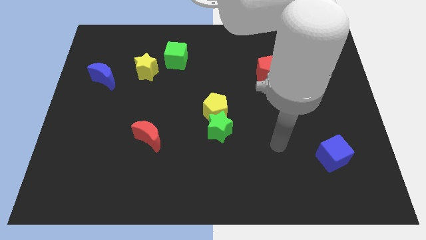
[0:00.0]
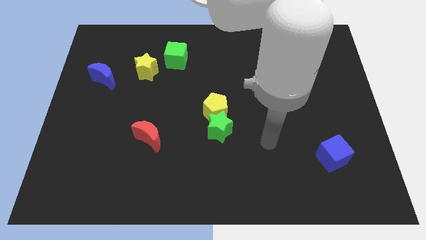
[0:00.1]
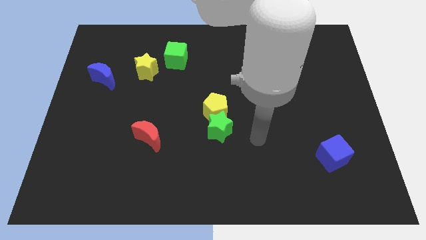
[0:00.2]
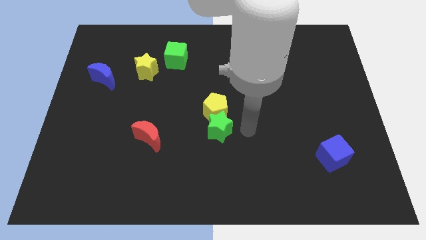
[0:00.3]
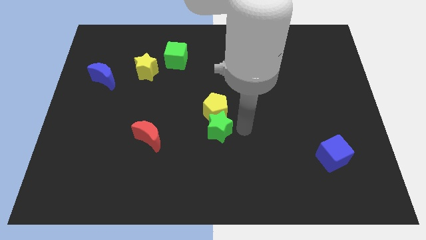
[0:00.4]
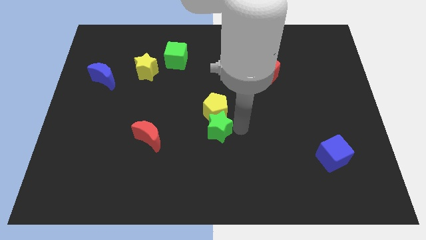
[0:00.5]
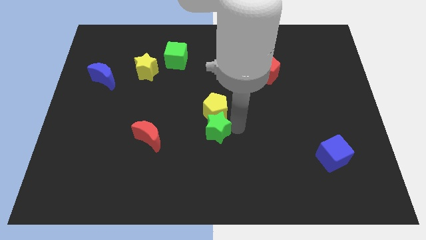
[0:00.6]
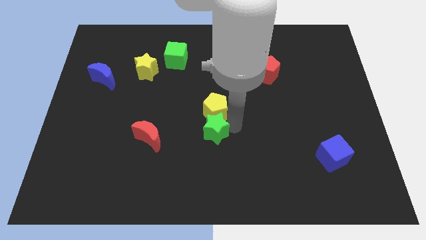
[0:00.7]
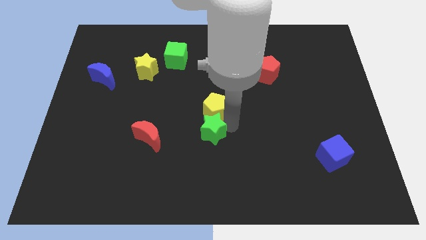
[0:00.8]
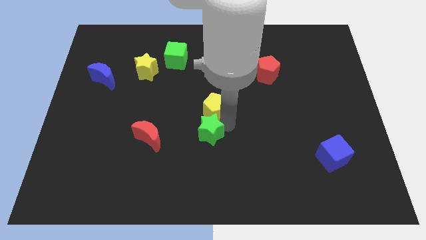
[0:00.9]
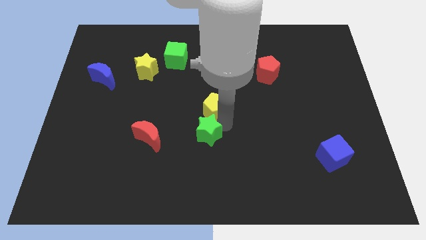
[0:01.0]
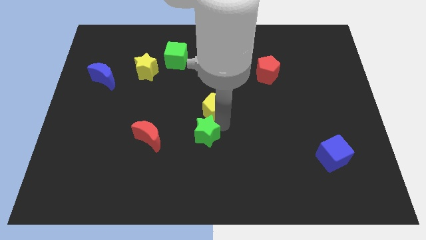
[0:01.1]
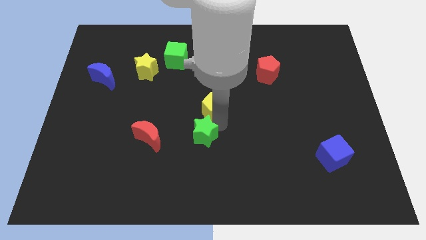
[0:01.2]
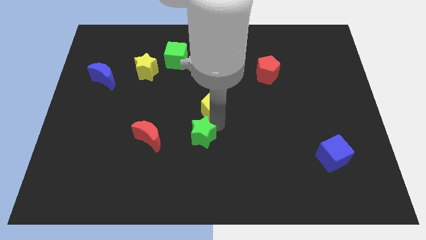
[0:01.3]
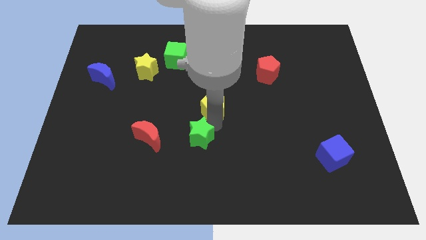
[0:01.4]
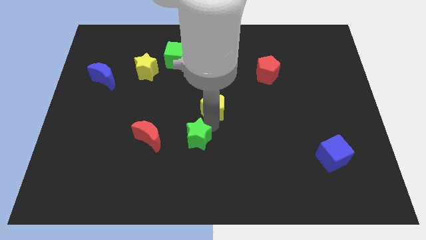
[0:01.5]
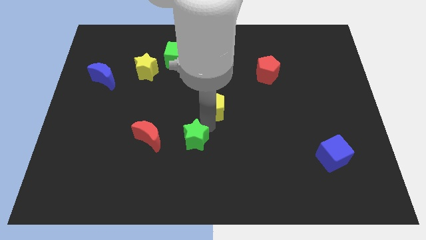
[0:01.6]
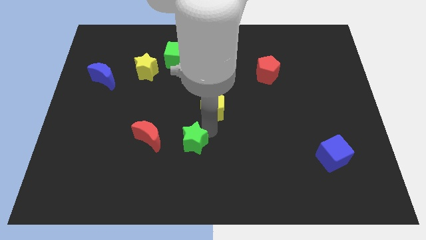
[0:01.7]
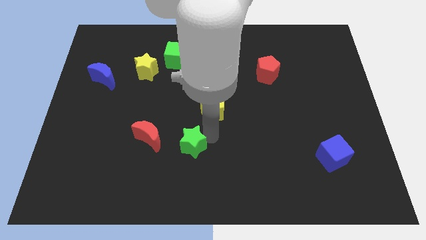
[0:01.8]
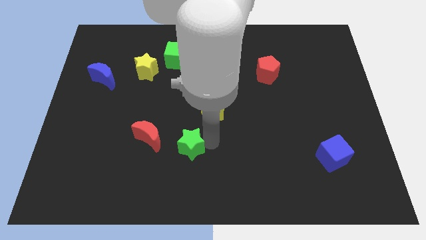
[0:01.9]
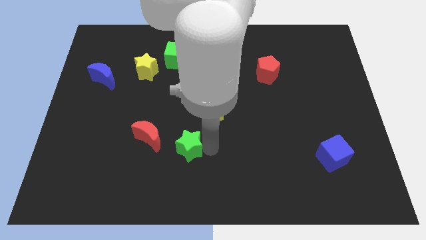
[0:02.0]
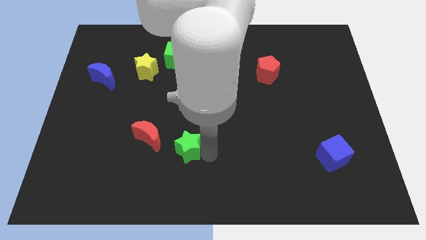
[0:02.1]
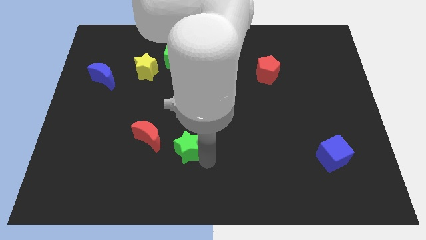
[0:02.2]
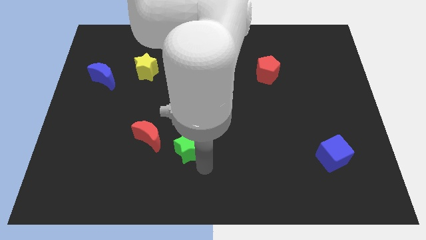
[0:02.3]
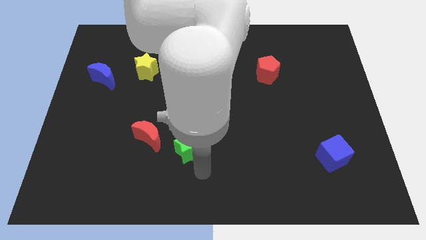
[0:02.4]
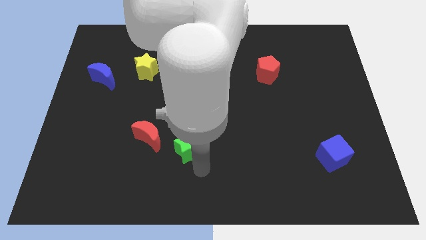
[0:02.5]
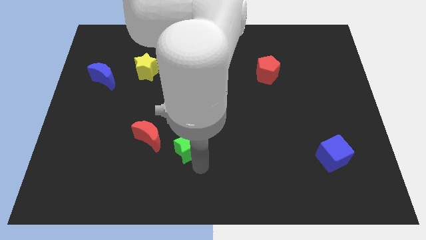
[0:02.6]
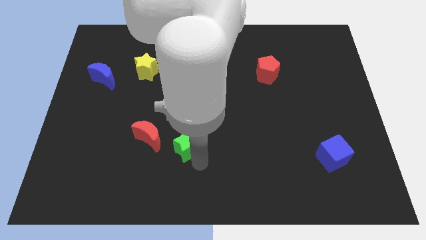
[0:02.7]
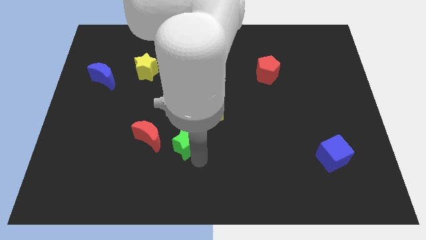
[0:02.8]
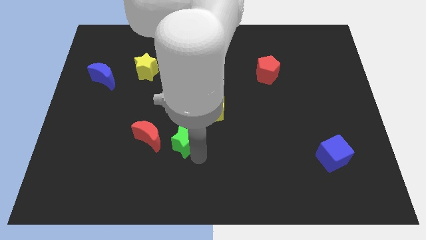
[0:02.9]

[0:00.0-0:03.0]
slightly push the green star to the left

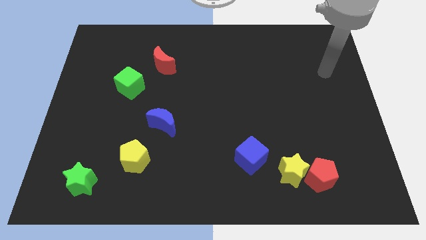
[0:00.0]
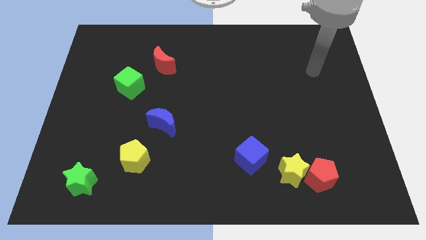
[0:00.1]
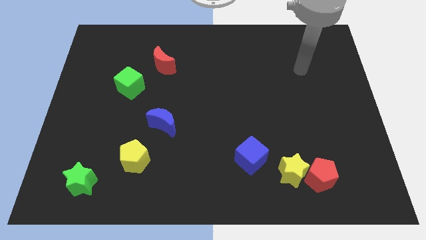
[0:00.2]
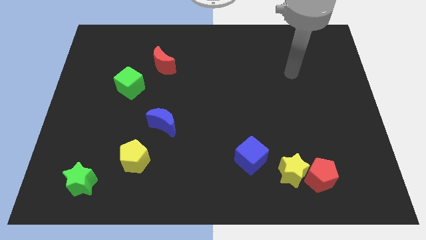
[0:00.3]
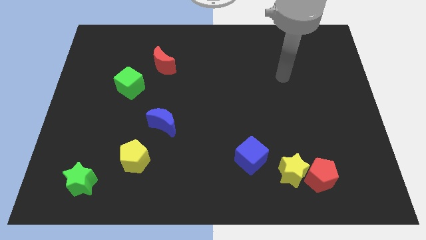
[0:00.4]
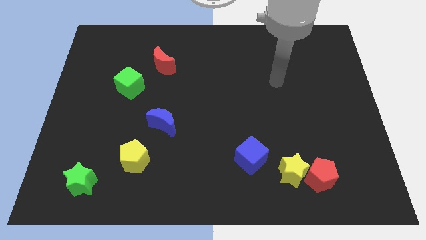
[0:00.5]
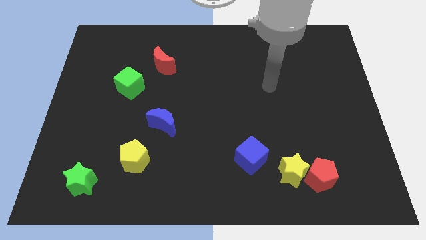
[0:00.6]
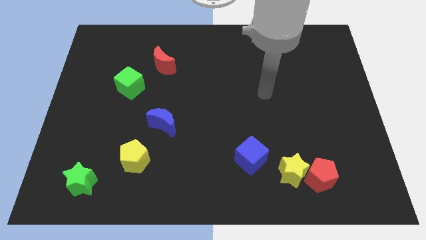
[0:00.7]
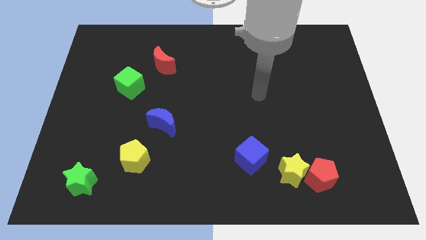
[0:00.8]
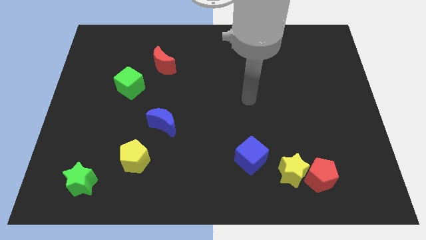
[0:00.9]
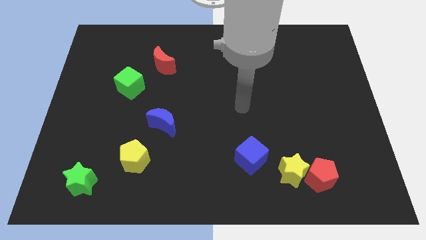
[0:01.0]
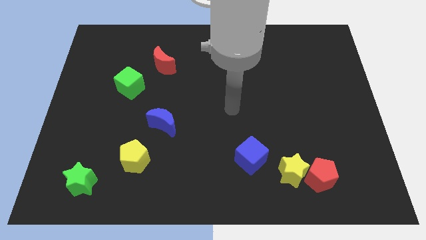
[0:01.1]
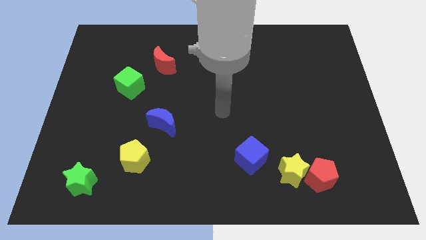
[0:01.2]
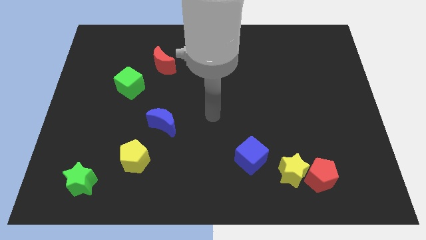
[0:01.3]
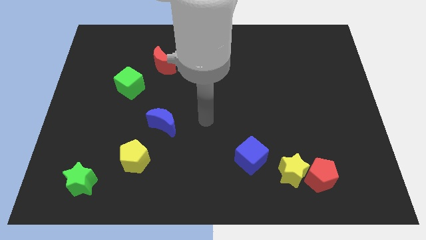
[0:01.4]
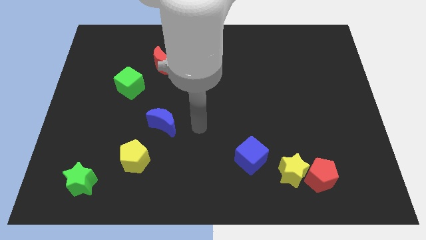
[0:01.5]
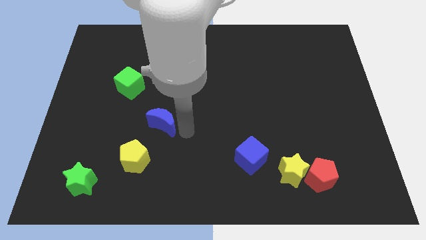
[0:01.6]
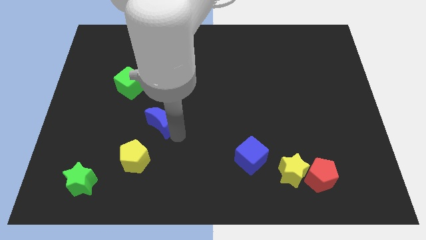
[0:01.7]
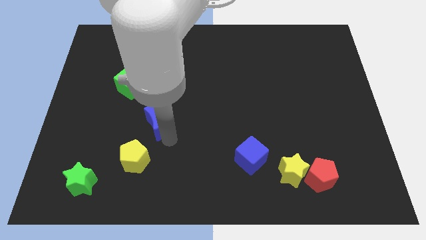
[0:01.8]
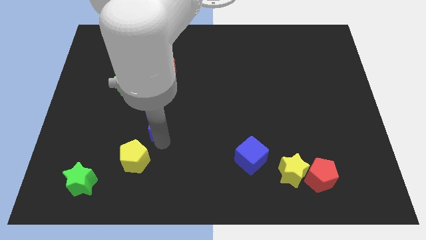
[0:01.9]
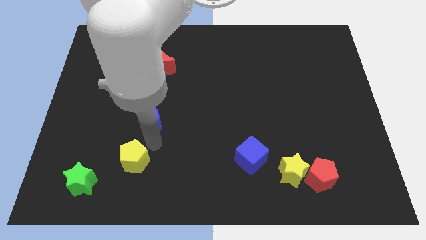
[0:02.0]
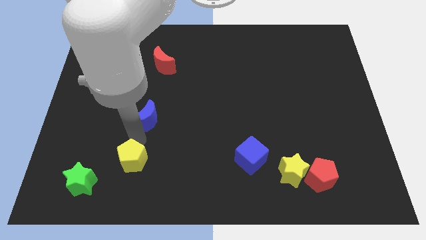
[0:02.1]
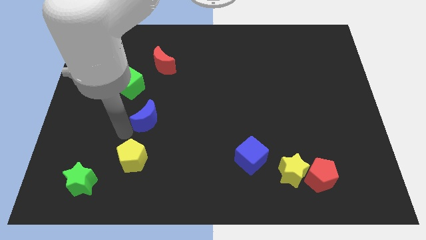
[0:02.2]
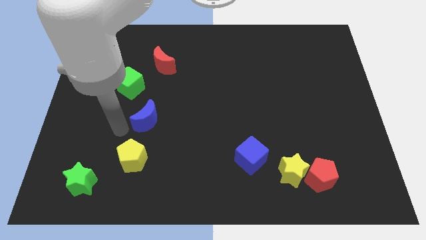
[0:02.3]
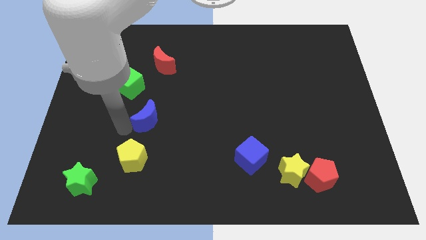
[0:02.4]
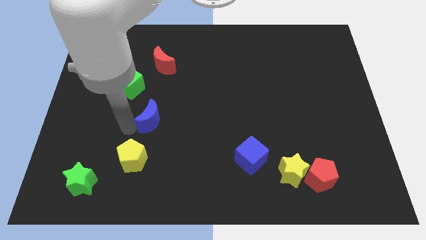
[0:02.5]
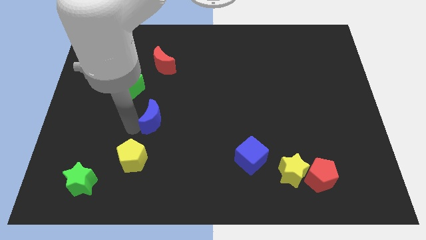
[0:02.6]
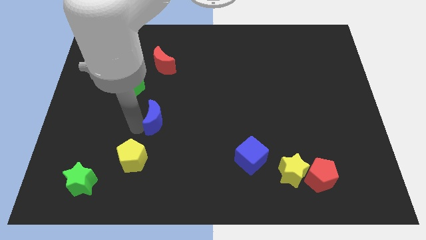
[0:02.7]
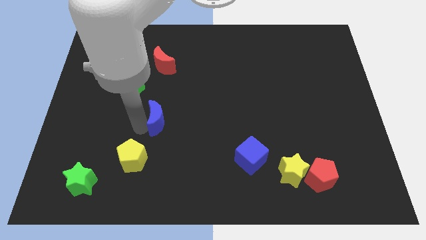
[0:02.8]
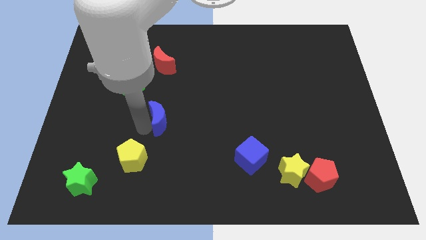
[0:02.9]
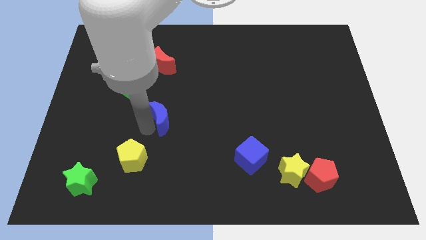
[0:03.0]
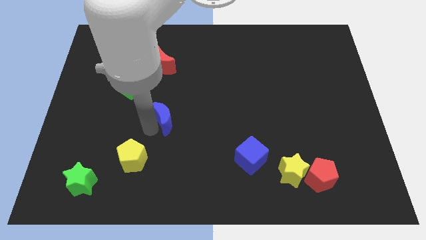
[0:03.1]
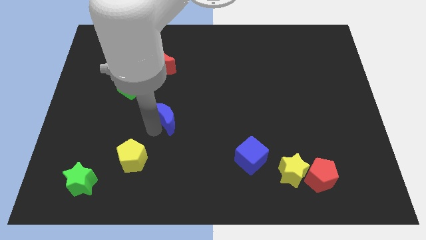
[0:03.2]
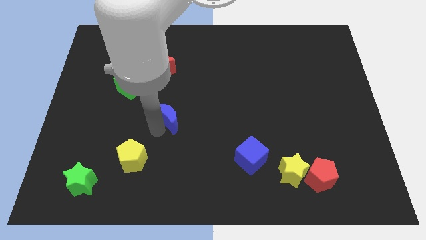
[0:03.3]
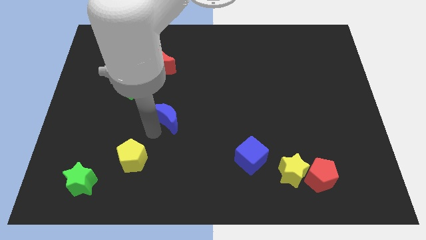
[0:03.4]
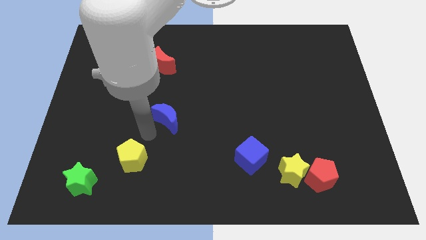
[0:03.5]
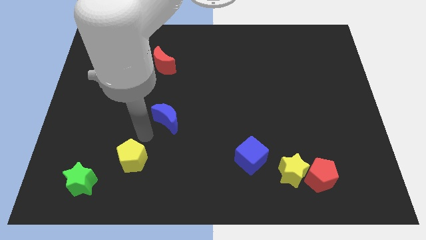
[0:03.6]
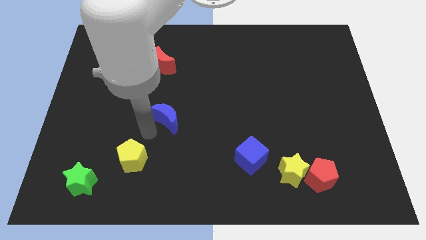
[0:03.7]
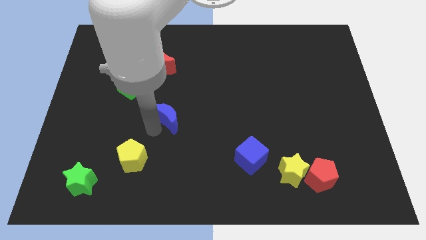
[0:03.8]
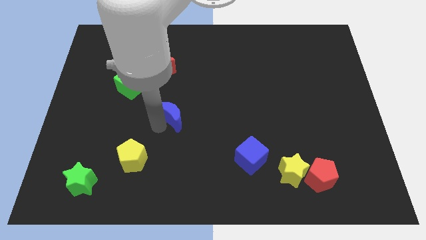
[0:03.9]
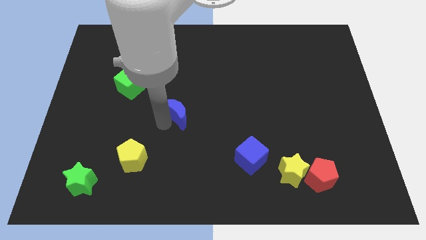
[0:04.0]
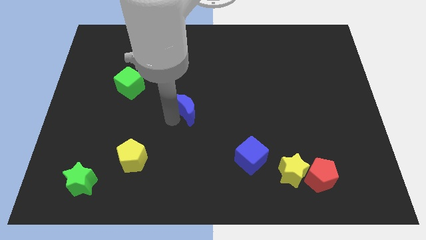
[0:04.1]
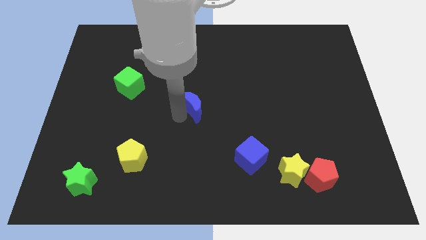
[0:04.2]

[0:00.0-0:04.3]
move the blue moon upwards and then right slightly

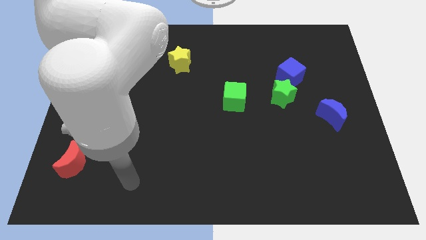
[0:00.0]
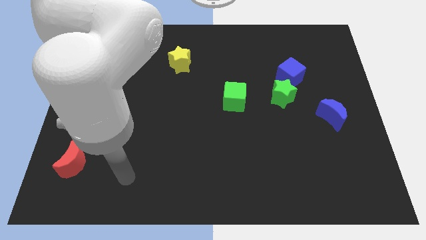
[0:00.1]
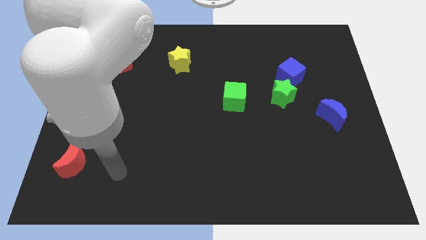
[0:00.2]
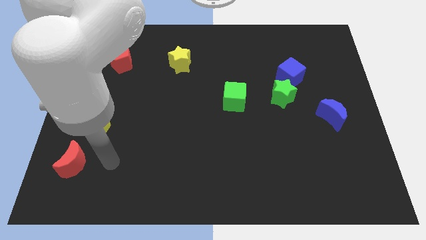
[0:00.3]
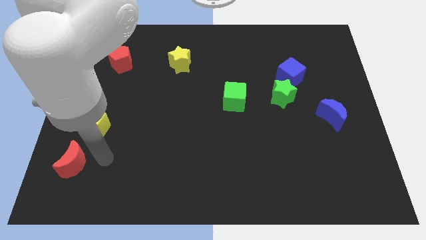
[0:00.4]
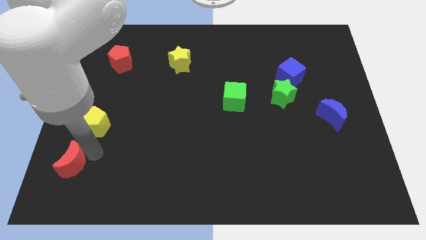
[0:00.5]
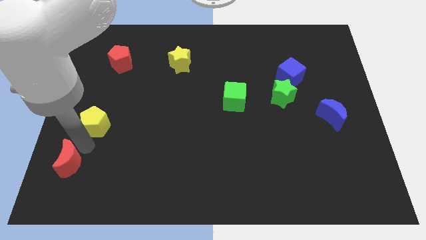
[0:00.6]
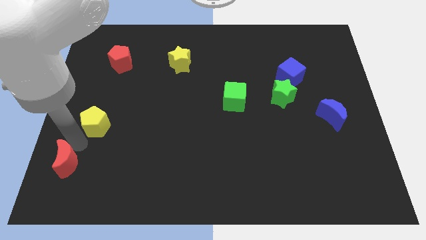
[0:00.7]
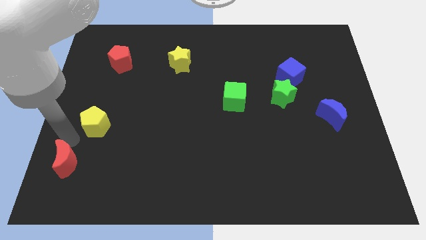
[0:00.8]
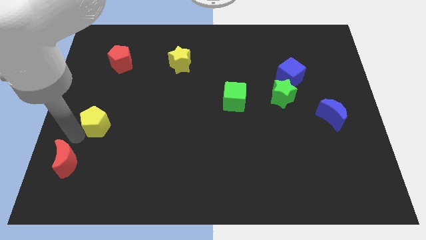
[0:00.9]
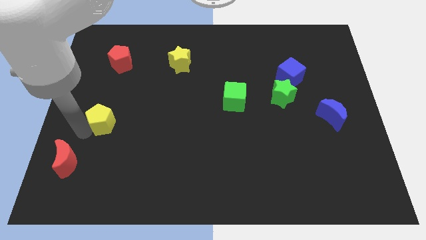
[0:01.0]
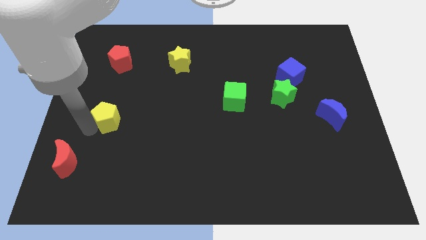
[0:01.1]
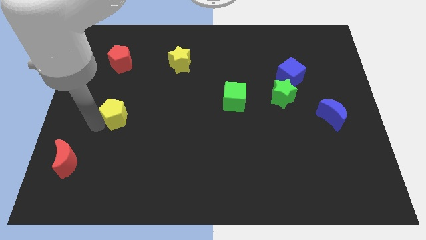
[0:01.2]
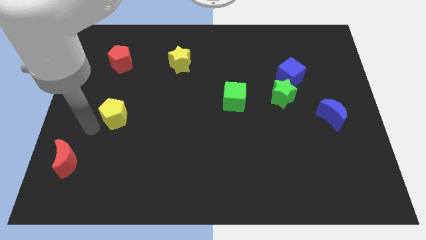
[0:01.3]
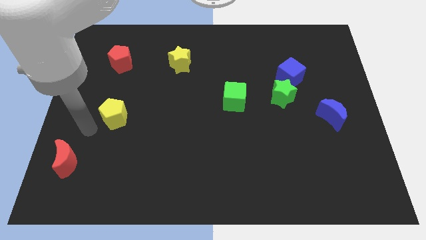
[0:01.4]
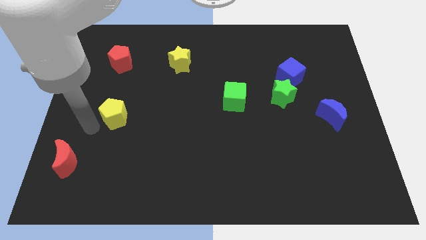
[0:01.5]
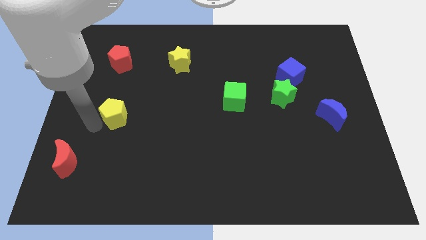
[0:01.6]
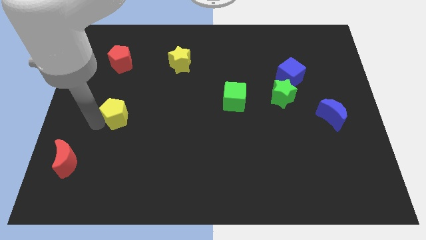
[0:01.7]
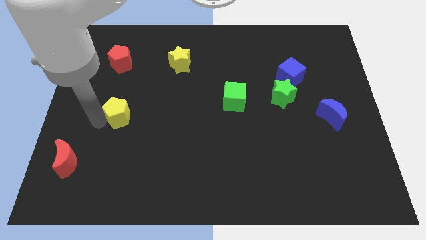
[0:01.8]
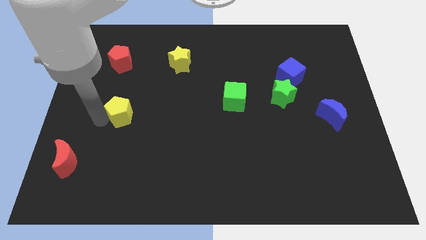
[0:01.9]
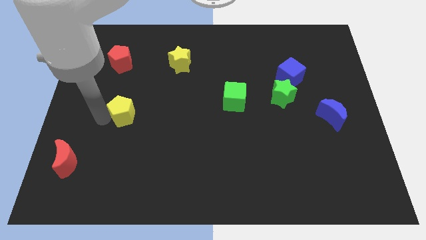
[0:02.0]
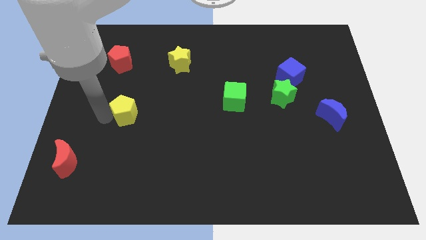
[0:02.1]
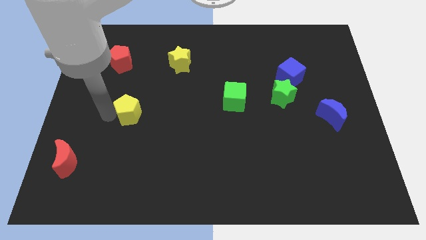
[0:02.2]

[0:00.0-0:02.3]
slide the yellow pentagon up and to the right diagonally a little bit
